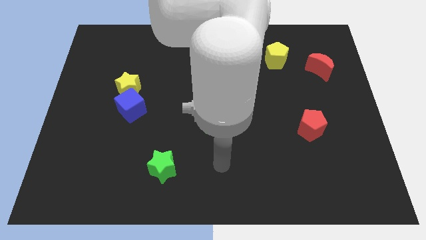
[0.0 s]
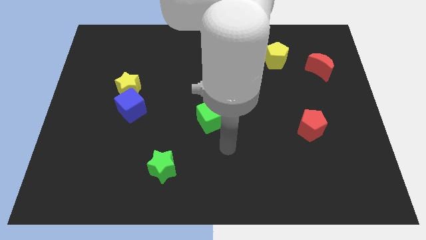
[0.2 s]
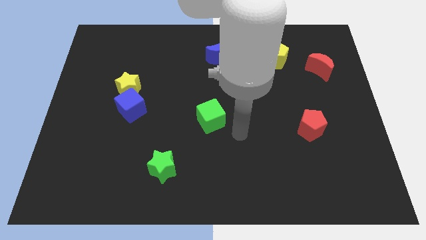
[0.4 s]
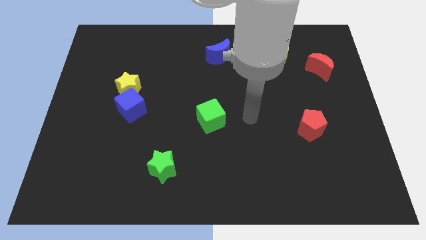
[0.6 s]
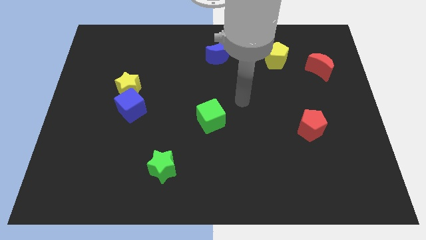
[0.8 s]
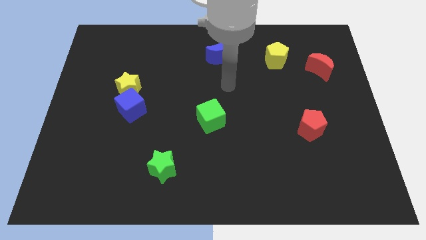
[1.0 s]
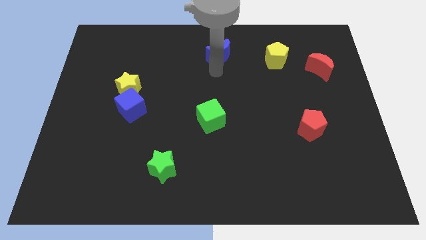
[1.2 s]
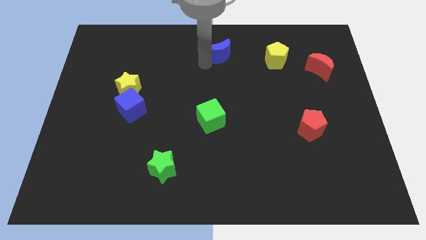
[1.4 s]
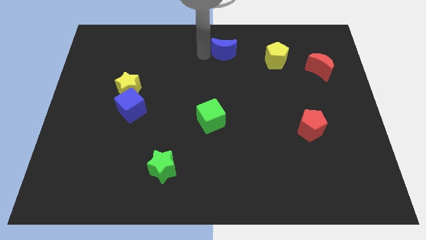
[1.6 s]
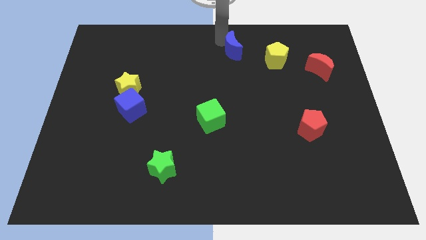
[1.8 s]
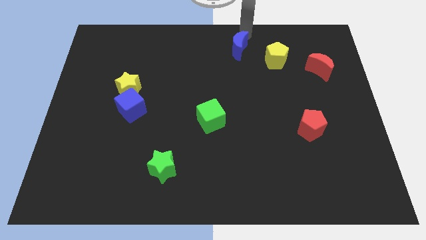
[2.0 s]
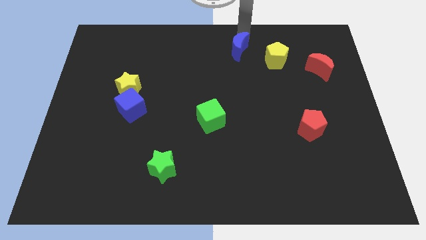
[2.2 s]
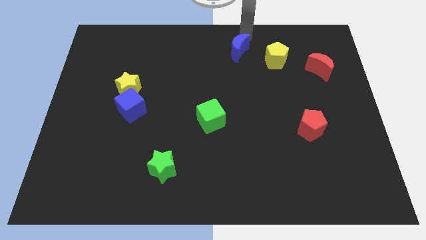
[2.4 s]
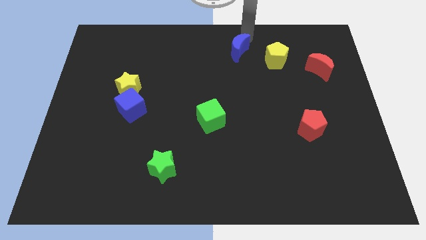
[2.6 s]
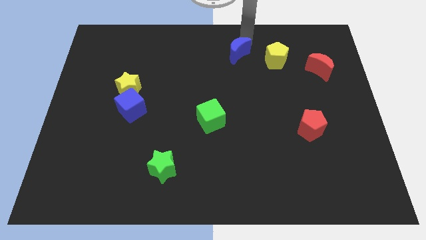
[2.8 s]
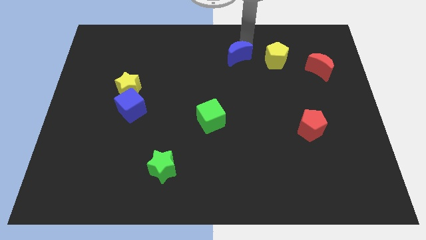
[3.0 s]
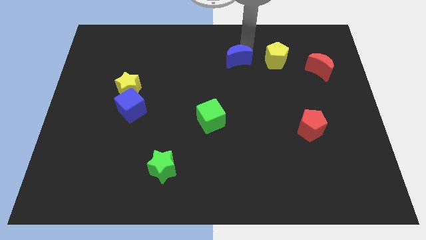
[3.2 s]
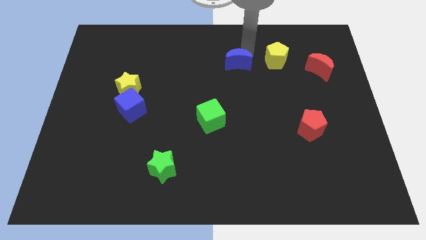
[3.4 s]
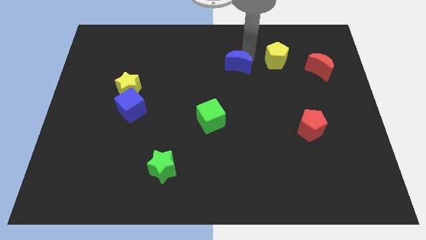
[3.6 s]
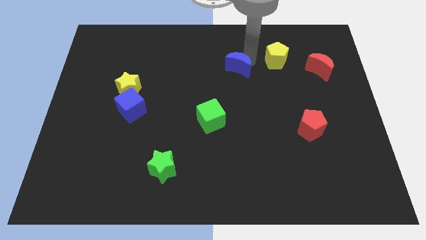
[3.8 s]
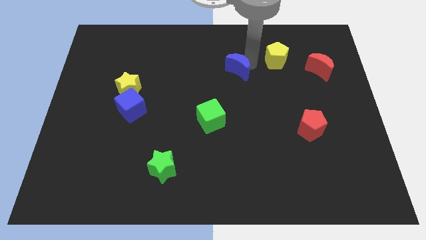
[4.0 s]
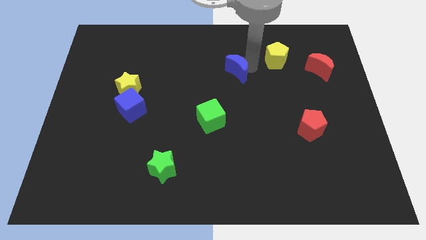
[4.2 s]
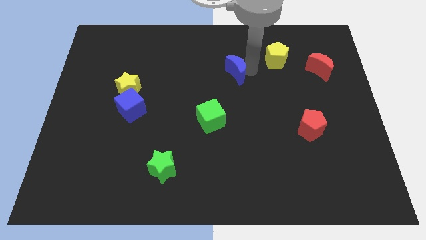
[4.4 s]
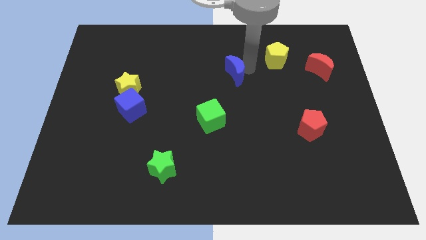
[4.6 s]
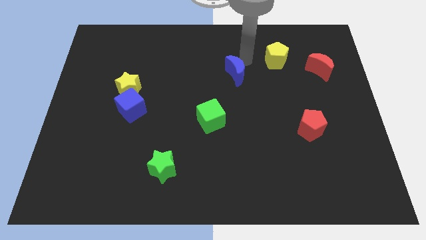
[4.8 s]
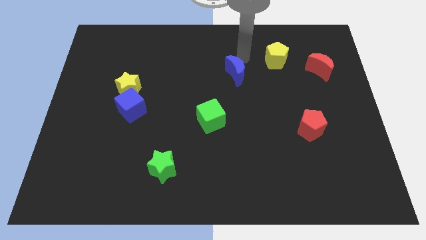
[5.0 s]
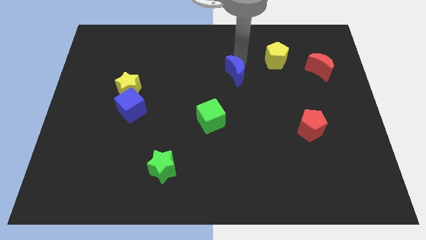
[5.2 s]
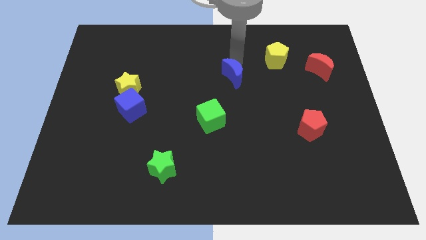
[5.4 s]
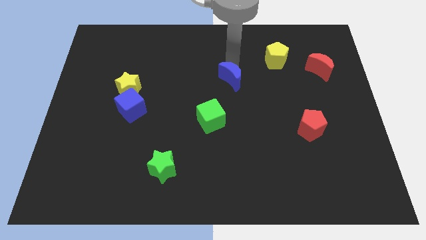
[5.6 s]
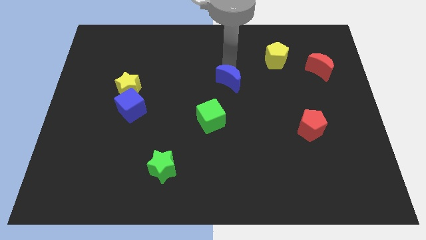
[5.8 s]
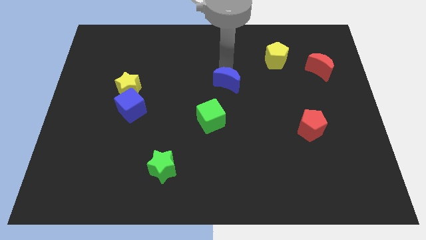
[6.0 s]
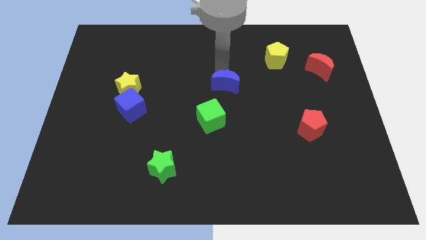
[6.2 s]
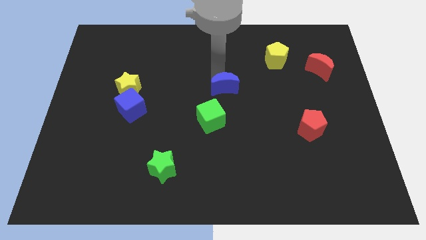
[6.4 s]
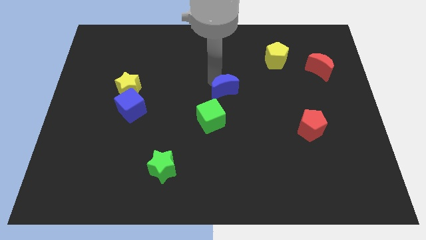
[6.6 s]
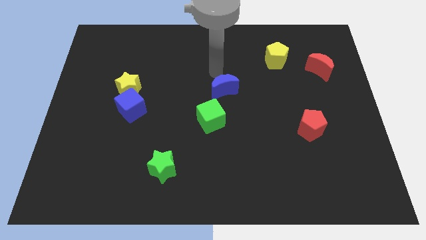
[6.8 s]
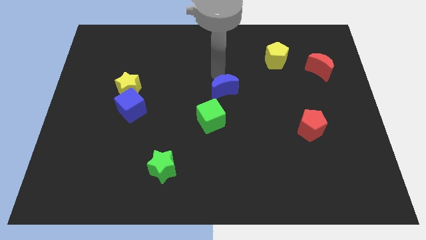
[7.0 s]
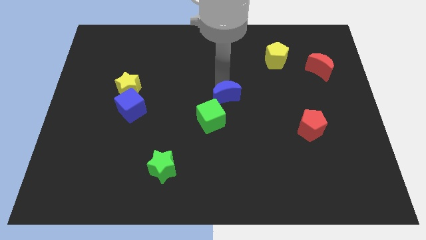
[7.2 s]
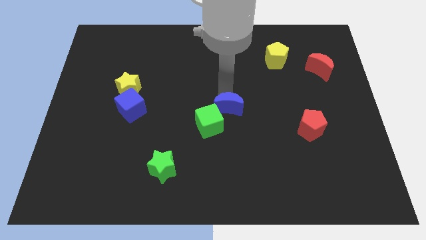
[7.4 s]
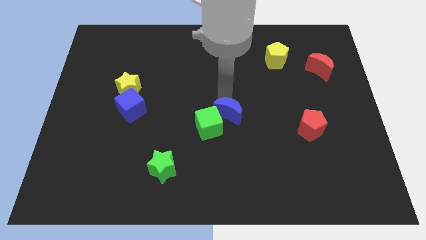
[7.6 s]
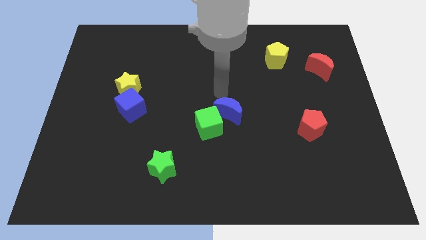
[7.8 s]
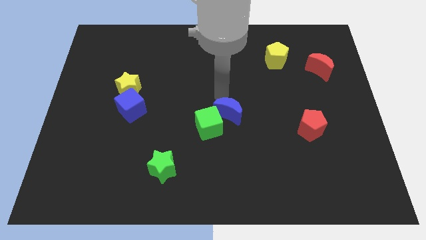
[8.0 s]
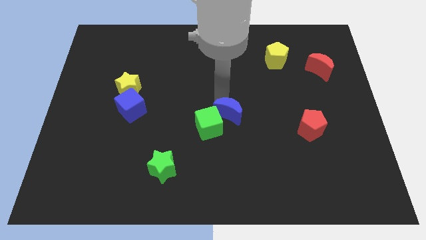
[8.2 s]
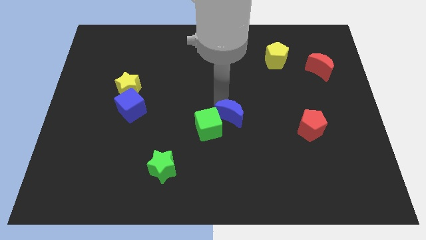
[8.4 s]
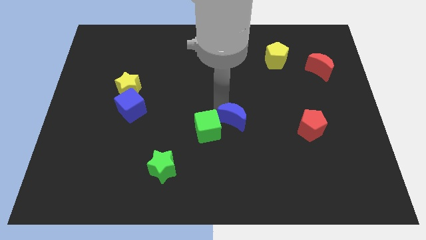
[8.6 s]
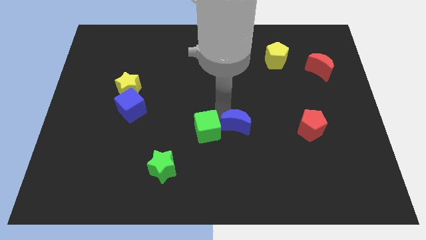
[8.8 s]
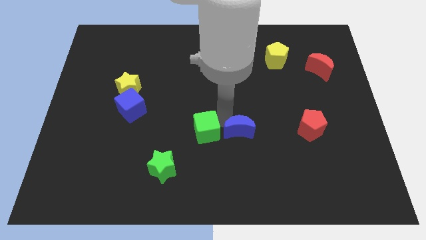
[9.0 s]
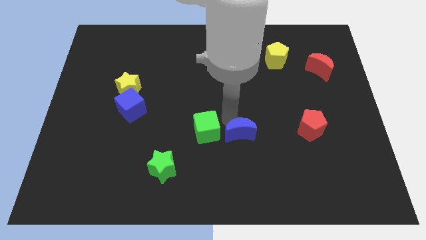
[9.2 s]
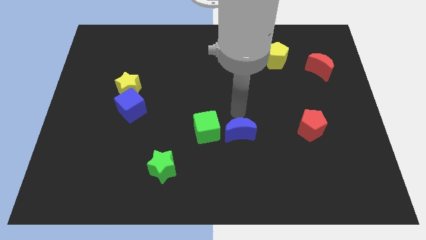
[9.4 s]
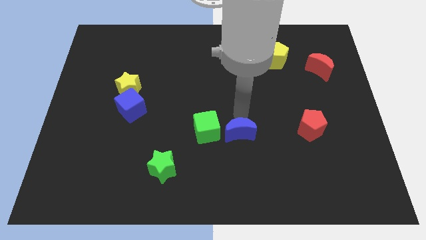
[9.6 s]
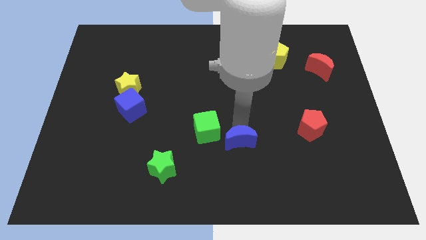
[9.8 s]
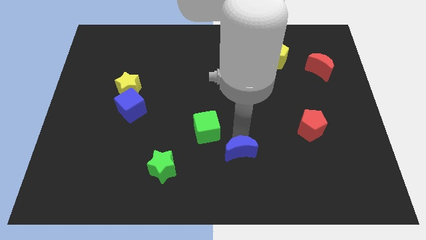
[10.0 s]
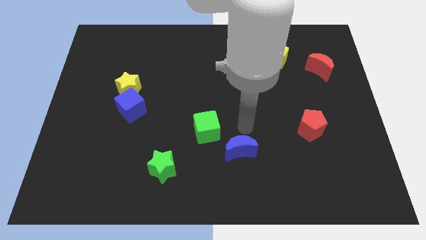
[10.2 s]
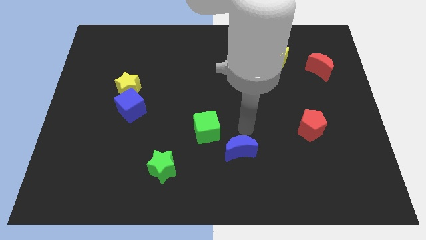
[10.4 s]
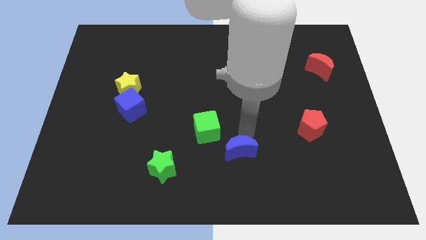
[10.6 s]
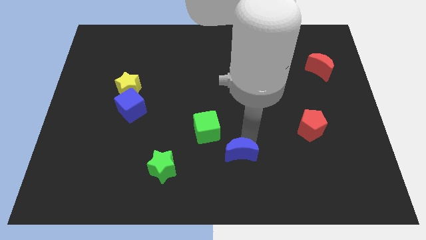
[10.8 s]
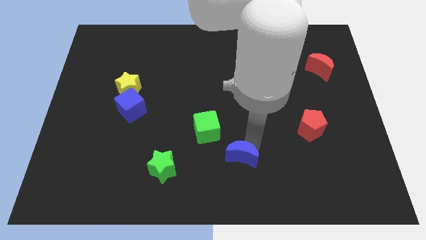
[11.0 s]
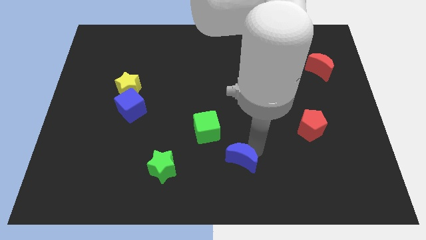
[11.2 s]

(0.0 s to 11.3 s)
push the blue moon to the bottom
